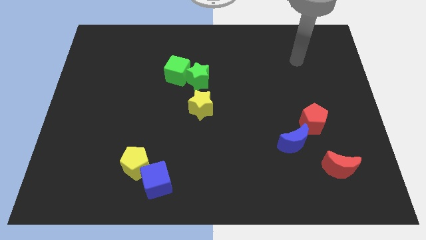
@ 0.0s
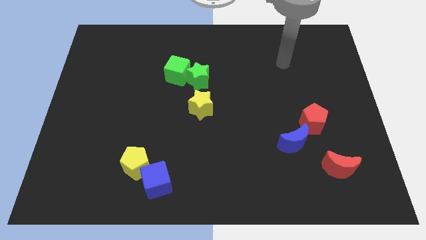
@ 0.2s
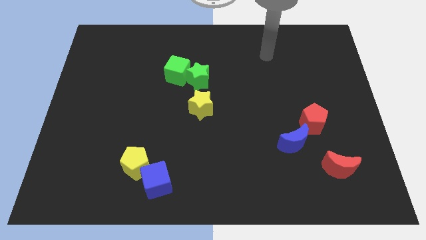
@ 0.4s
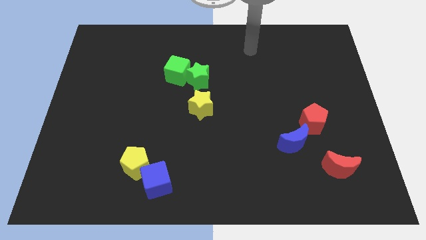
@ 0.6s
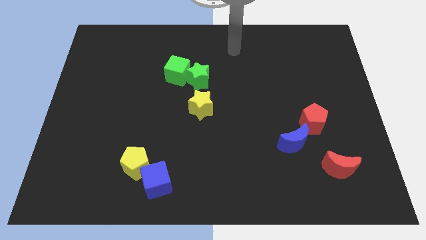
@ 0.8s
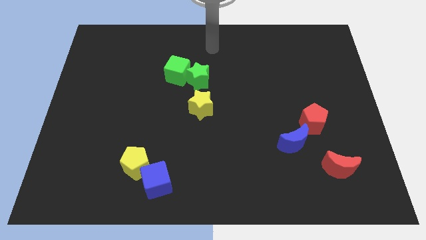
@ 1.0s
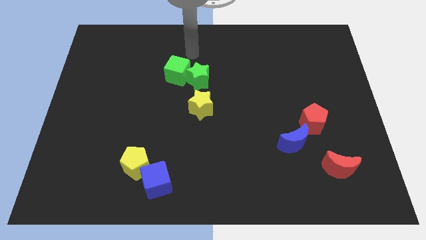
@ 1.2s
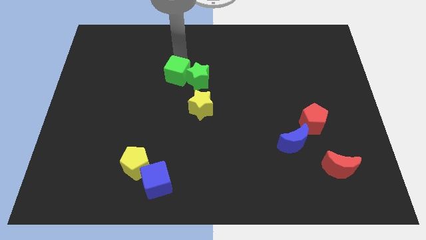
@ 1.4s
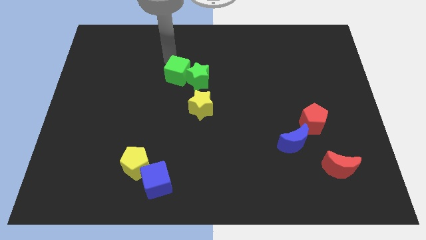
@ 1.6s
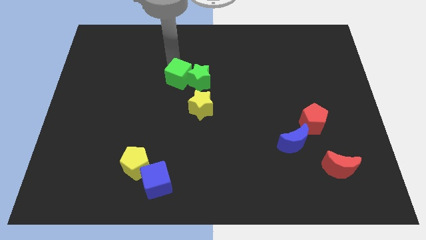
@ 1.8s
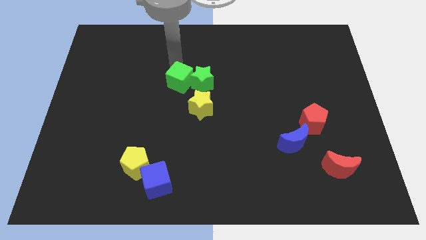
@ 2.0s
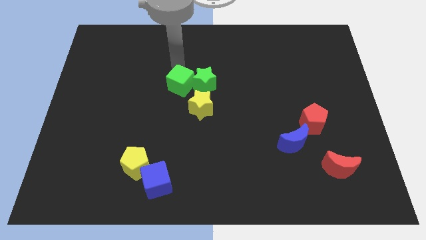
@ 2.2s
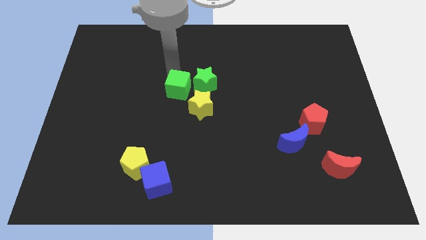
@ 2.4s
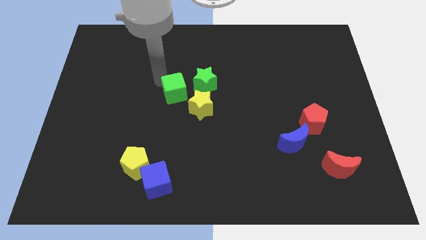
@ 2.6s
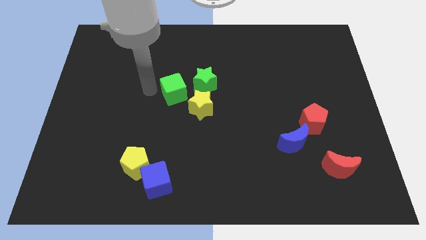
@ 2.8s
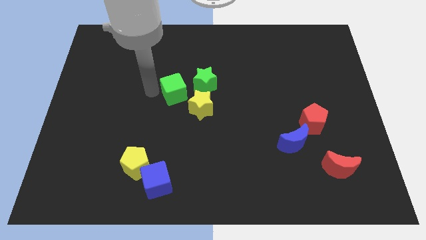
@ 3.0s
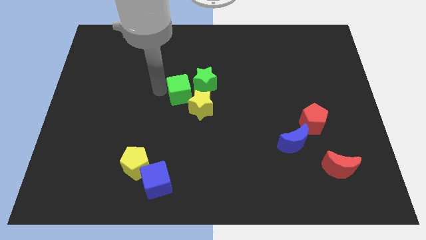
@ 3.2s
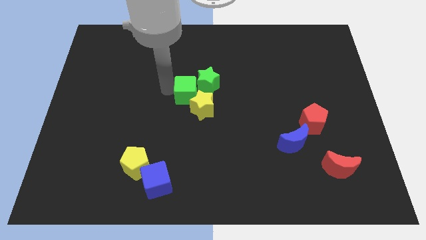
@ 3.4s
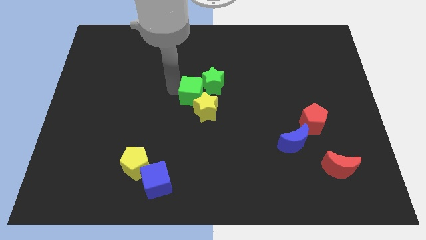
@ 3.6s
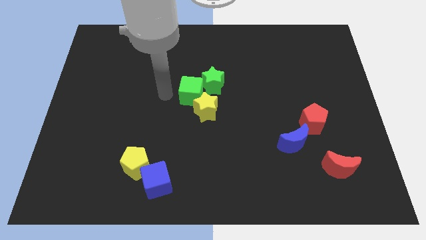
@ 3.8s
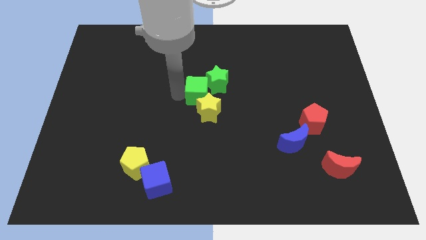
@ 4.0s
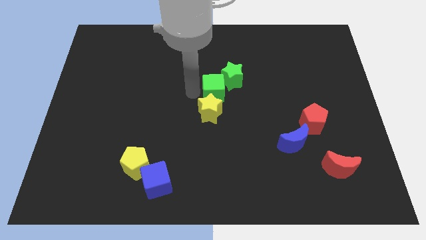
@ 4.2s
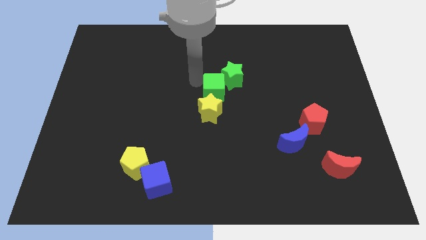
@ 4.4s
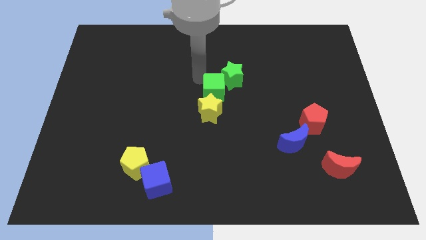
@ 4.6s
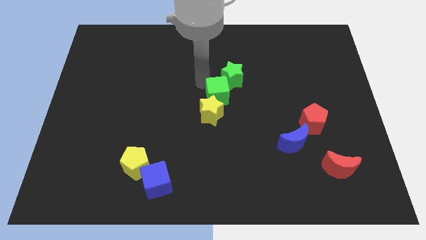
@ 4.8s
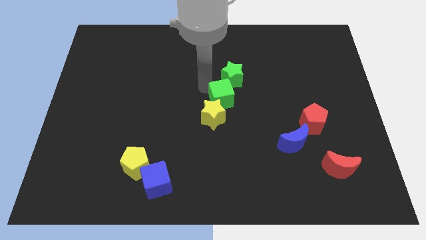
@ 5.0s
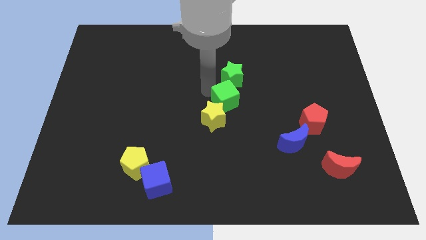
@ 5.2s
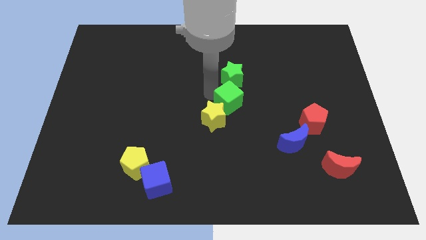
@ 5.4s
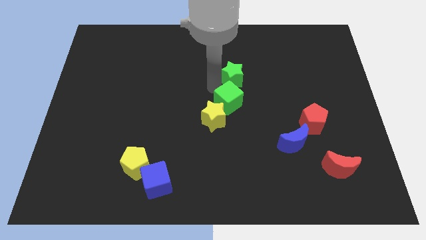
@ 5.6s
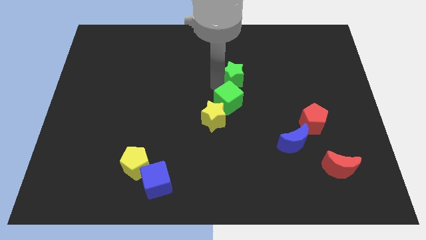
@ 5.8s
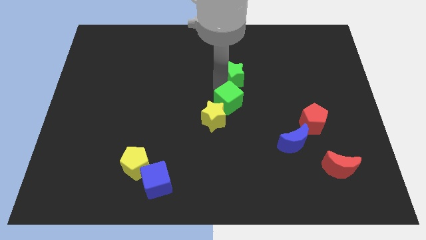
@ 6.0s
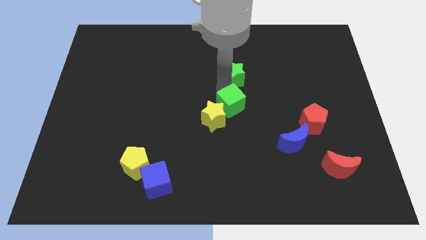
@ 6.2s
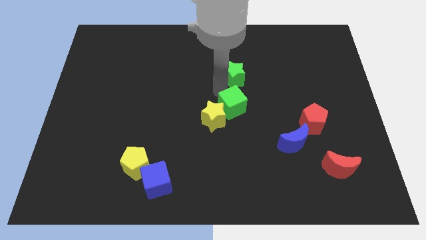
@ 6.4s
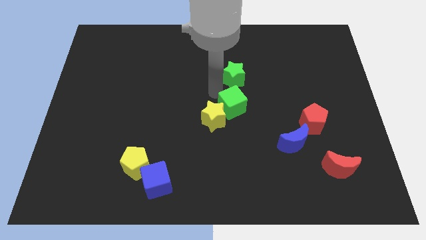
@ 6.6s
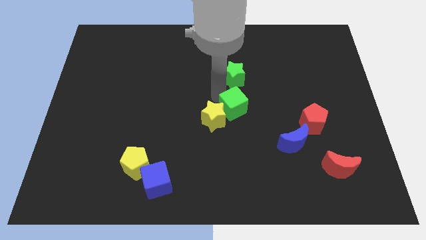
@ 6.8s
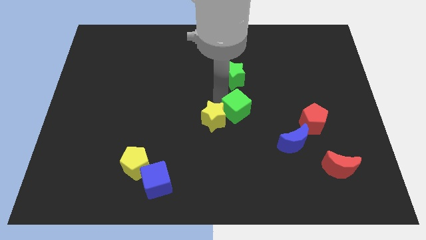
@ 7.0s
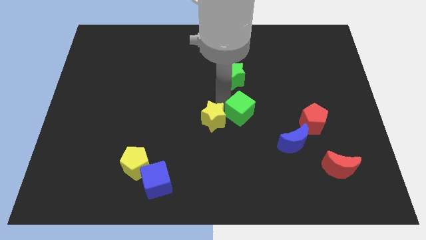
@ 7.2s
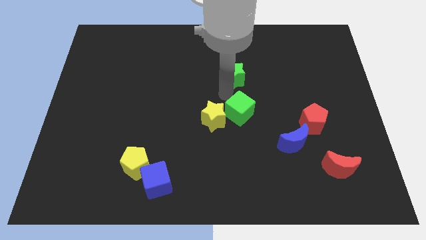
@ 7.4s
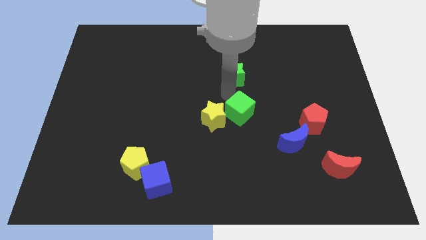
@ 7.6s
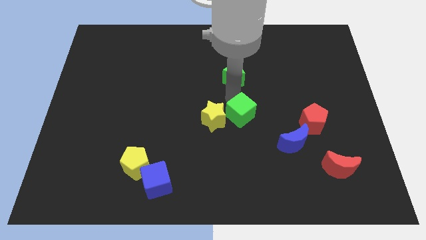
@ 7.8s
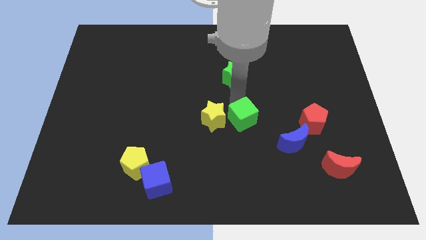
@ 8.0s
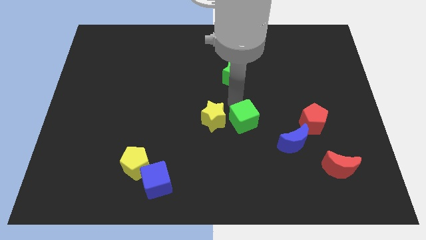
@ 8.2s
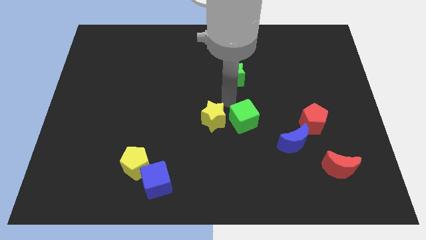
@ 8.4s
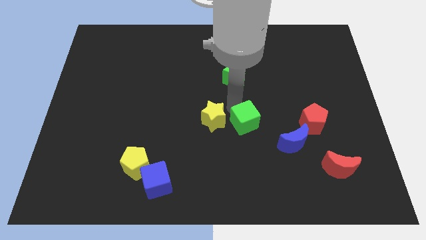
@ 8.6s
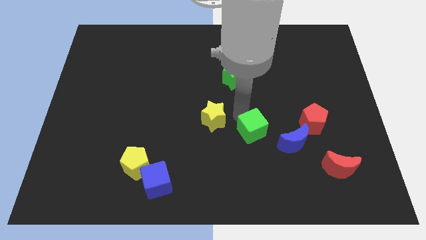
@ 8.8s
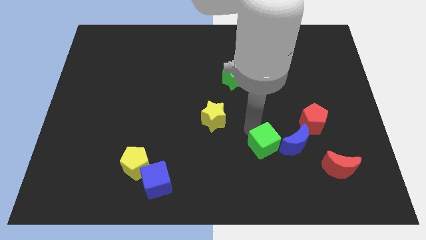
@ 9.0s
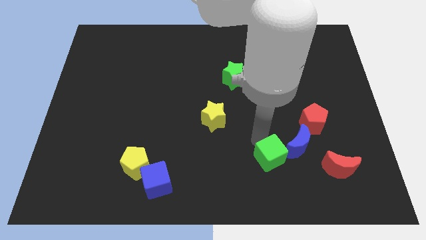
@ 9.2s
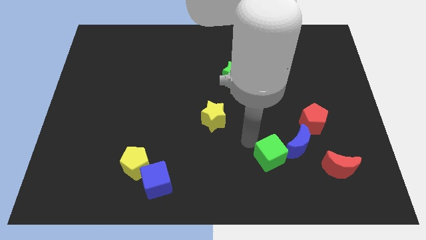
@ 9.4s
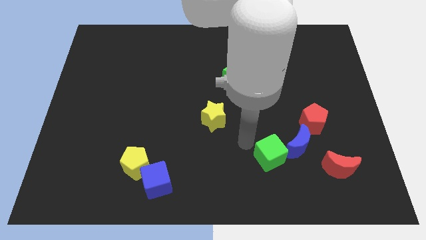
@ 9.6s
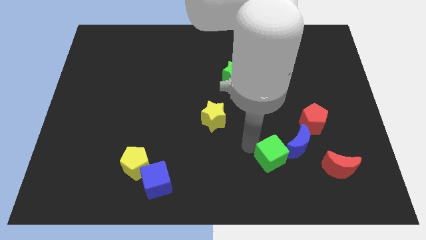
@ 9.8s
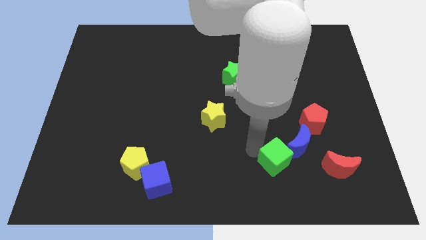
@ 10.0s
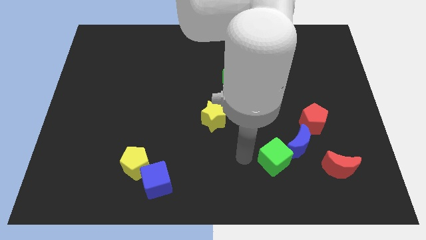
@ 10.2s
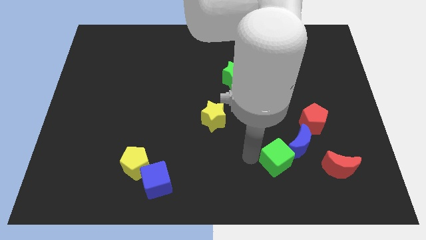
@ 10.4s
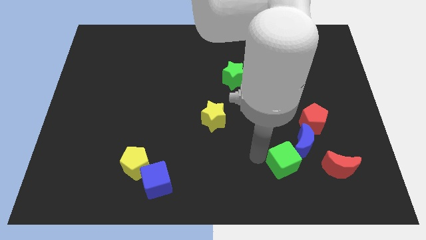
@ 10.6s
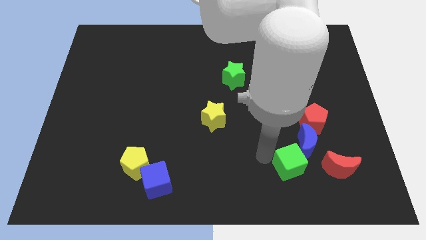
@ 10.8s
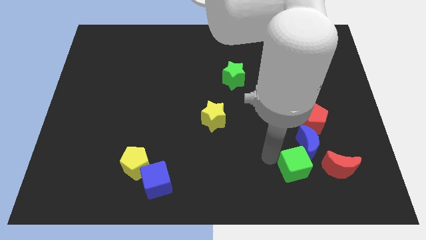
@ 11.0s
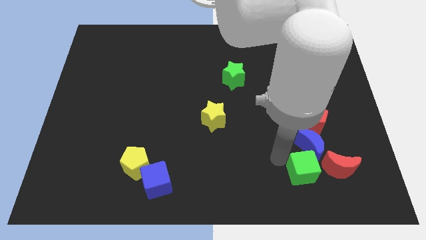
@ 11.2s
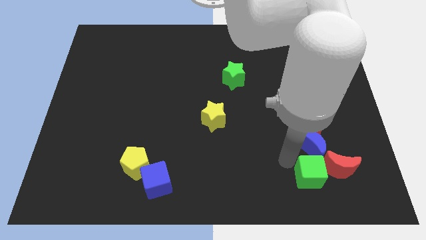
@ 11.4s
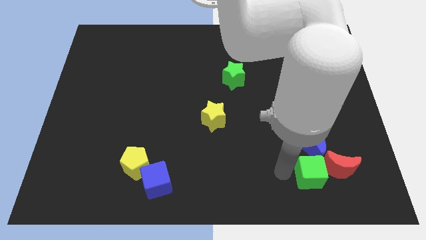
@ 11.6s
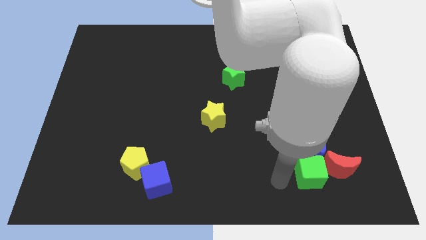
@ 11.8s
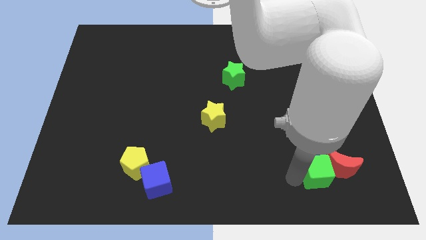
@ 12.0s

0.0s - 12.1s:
move the green cube to the red moon

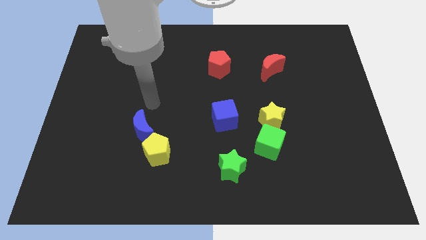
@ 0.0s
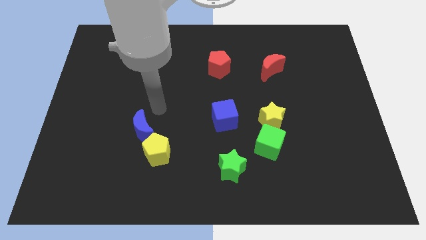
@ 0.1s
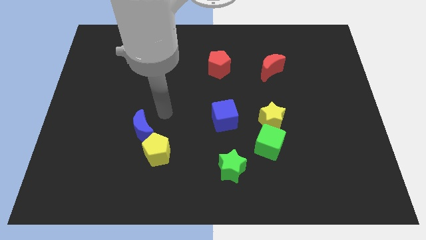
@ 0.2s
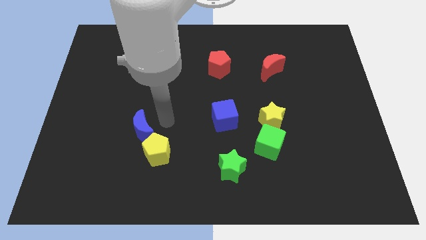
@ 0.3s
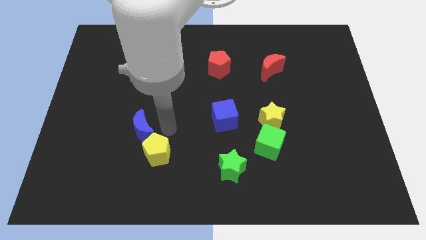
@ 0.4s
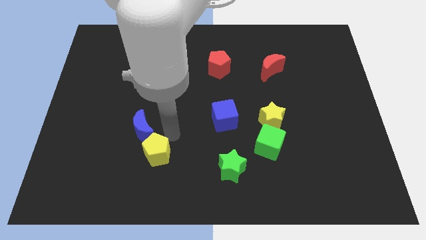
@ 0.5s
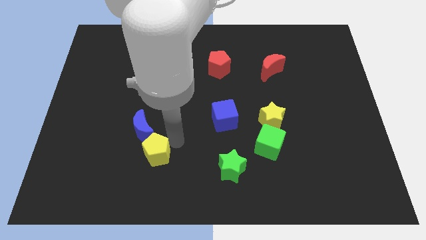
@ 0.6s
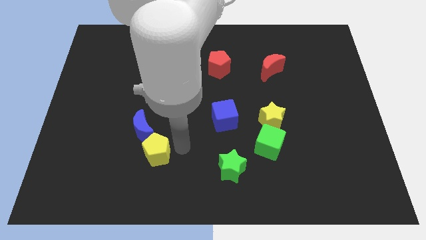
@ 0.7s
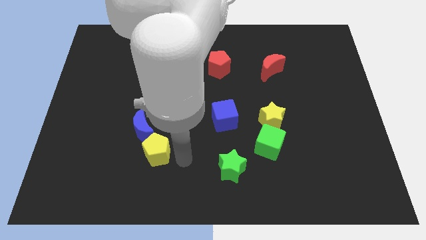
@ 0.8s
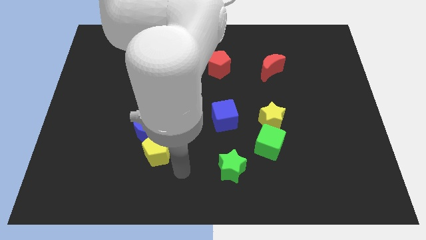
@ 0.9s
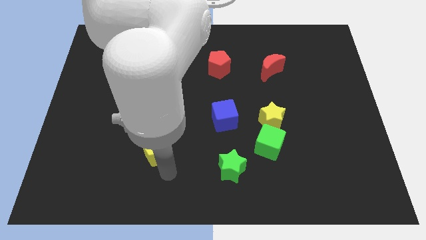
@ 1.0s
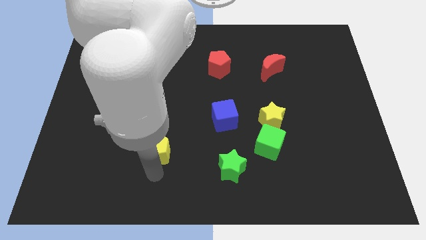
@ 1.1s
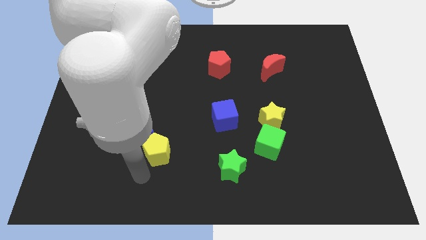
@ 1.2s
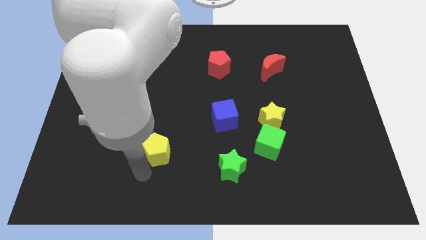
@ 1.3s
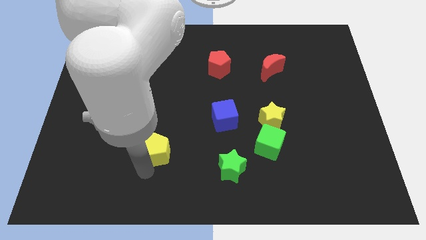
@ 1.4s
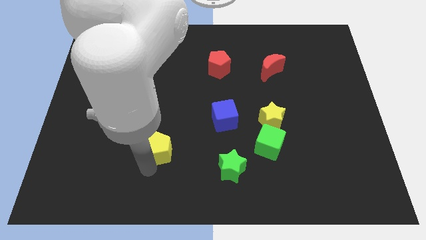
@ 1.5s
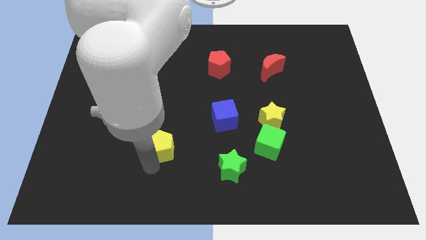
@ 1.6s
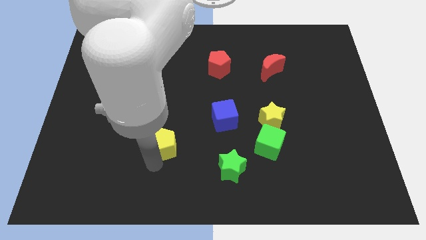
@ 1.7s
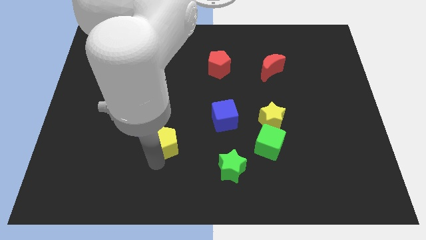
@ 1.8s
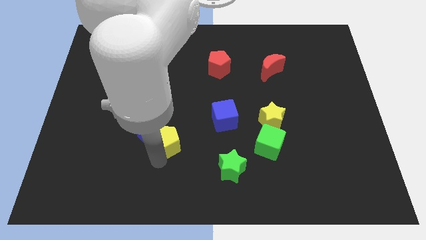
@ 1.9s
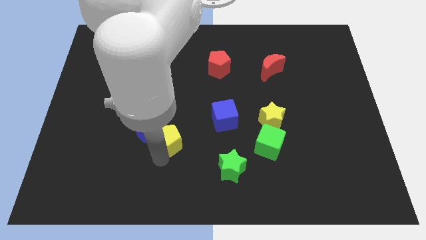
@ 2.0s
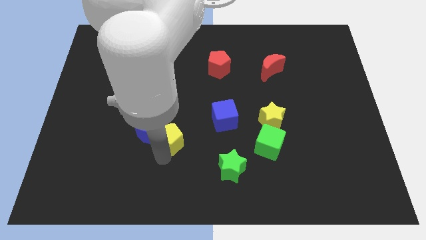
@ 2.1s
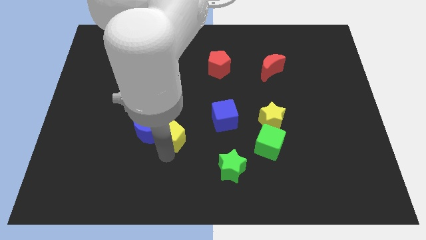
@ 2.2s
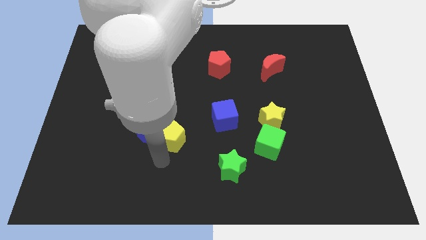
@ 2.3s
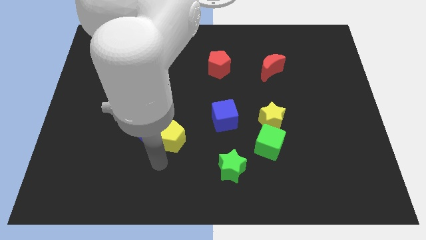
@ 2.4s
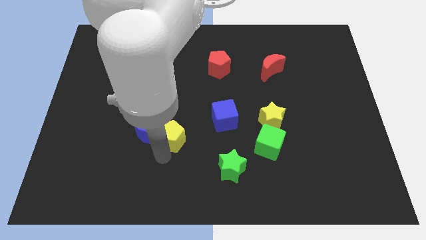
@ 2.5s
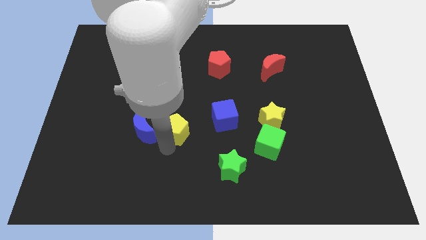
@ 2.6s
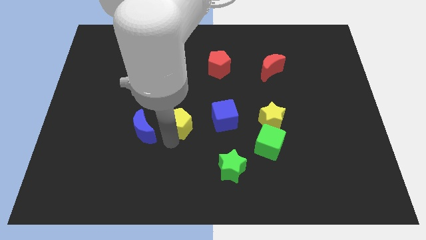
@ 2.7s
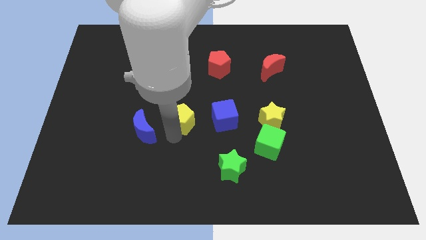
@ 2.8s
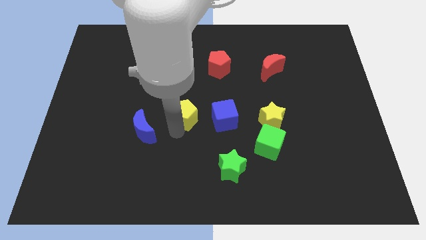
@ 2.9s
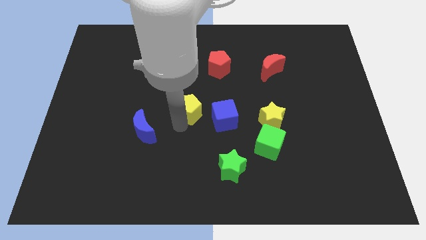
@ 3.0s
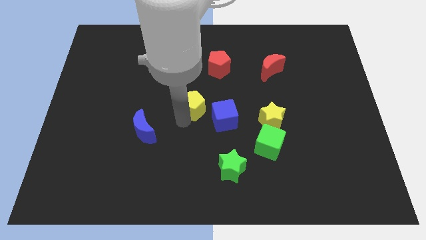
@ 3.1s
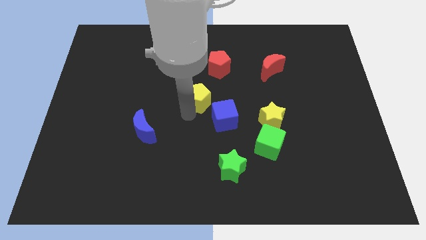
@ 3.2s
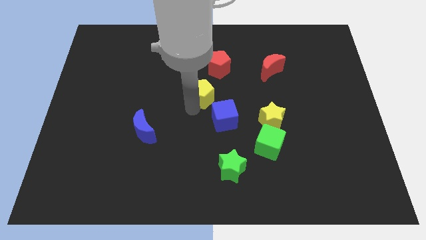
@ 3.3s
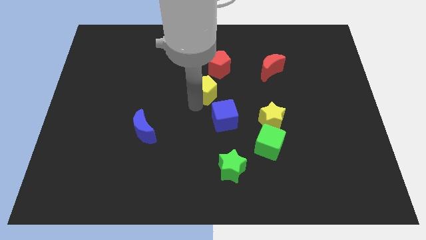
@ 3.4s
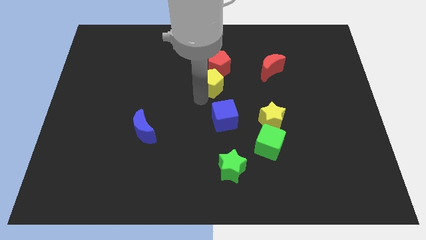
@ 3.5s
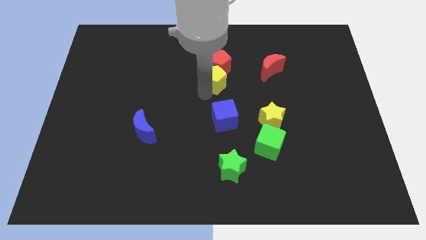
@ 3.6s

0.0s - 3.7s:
slide the yellow pentagon to the red pentagon
